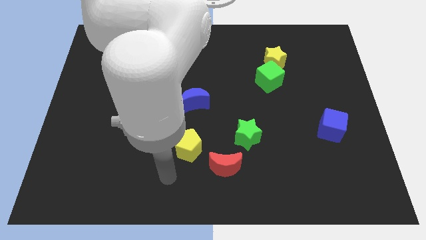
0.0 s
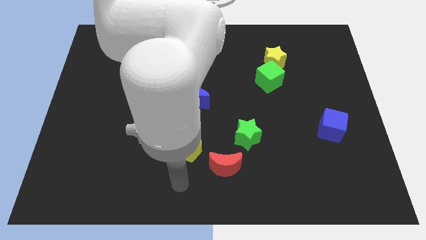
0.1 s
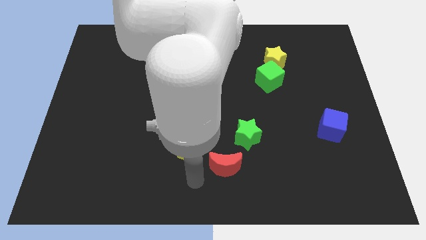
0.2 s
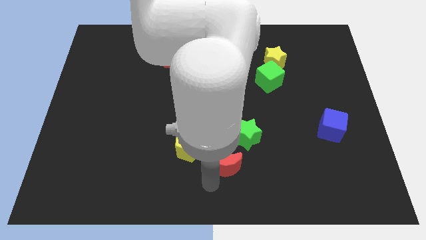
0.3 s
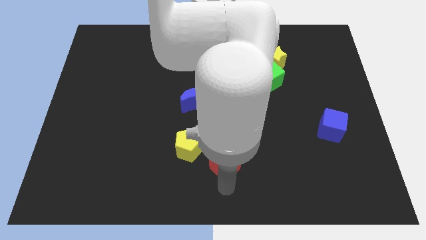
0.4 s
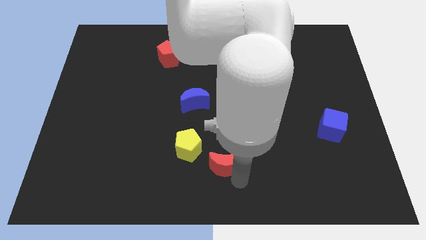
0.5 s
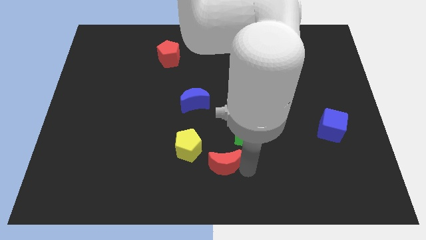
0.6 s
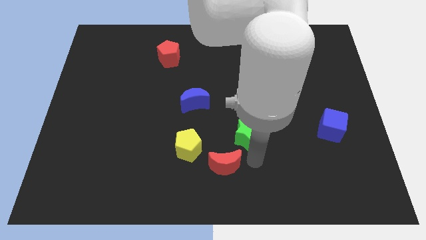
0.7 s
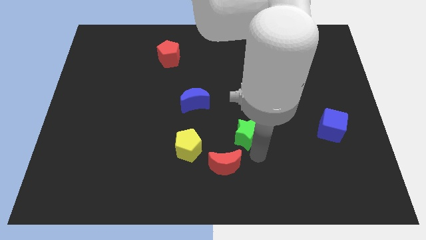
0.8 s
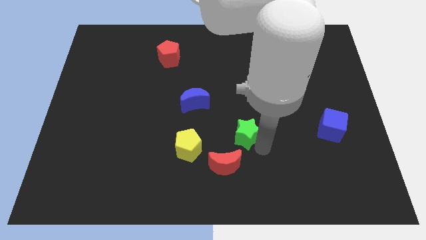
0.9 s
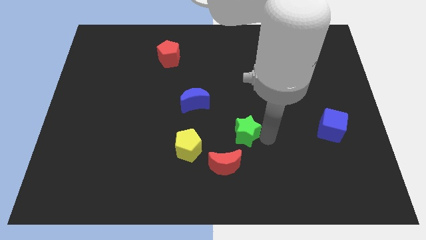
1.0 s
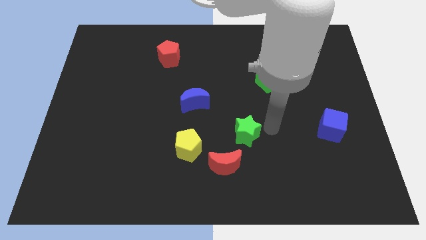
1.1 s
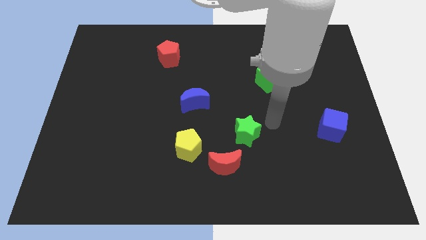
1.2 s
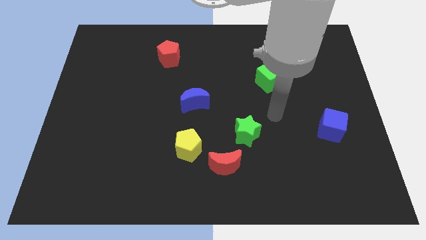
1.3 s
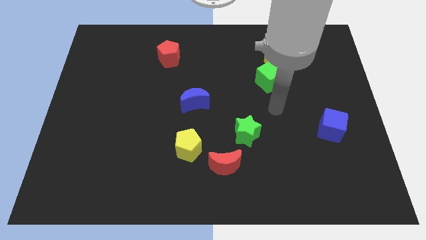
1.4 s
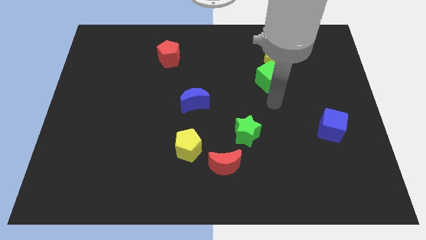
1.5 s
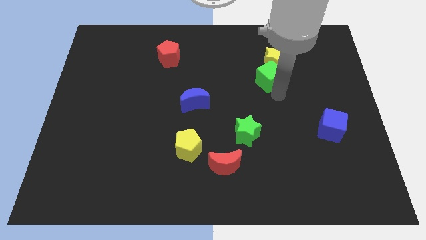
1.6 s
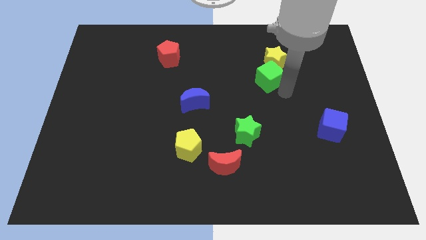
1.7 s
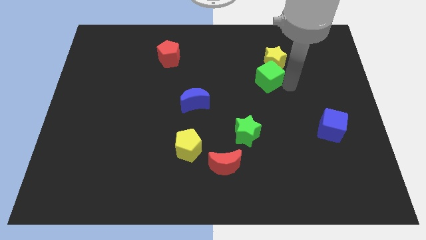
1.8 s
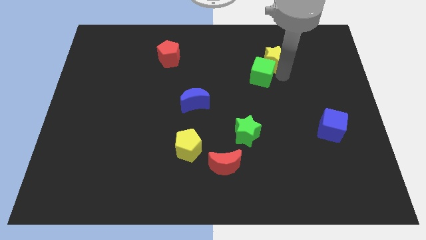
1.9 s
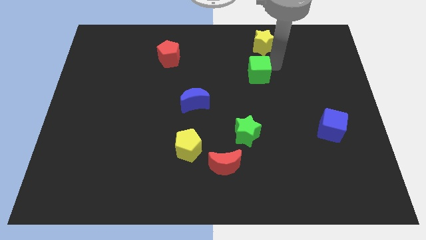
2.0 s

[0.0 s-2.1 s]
move the green cube away from the yellow star

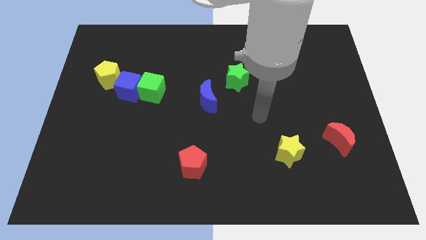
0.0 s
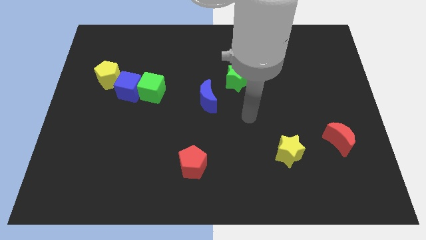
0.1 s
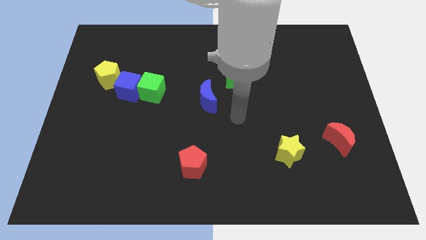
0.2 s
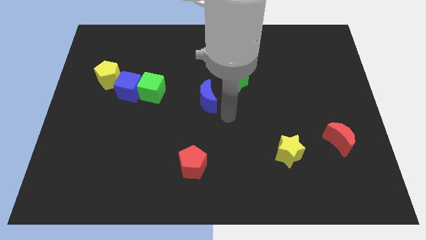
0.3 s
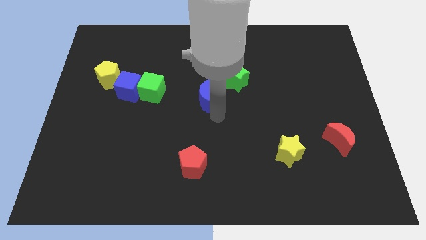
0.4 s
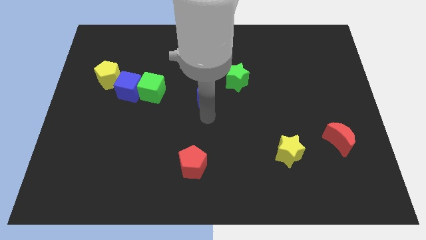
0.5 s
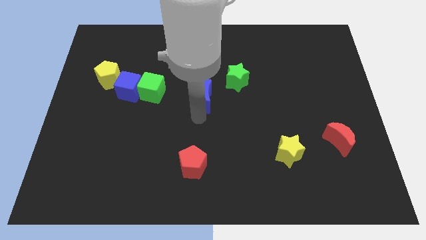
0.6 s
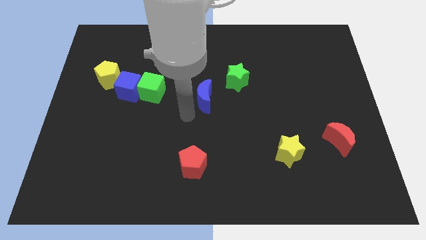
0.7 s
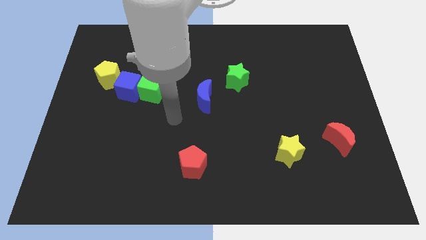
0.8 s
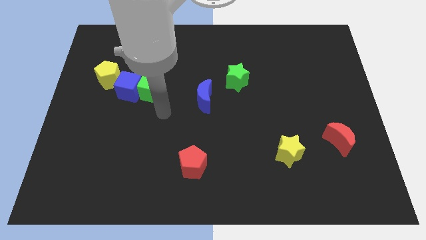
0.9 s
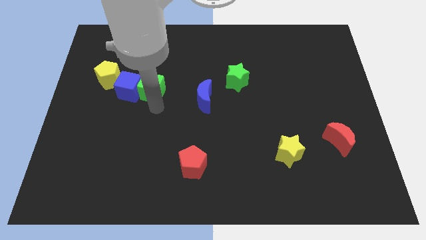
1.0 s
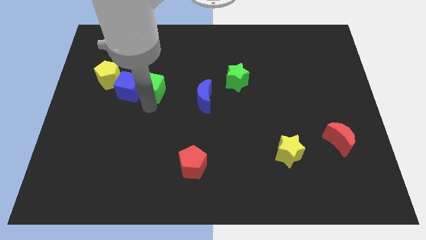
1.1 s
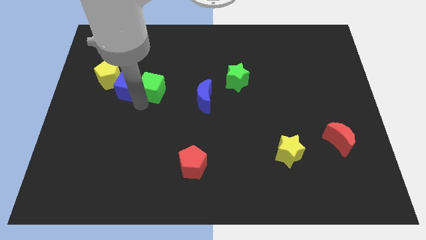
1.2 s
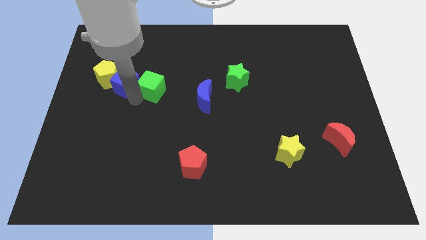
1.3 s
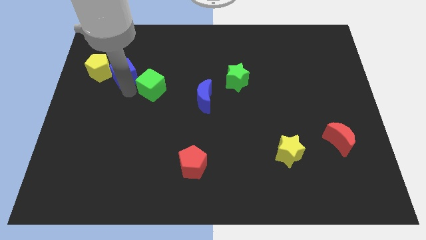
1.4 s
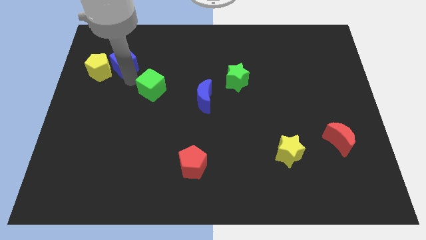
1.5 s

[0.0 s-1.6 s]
pull the green cube apart from the blue cube

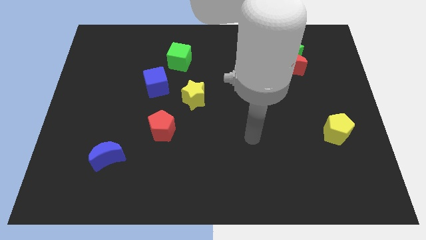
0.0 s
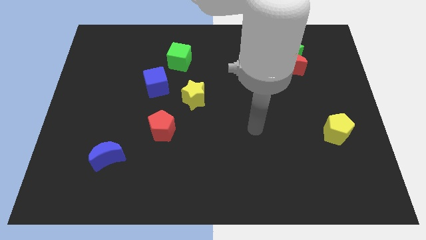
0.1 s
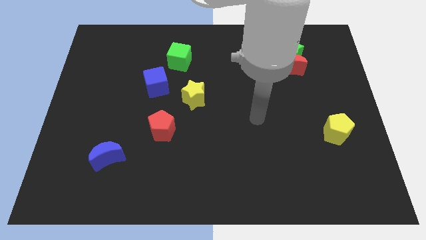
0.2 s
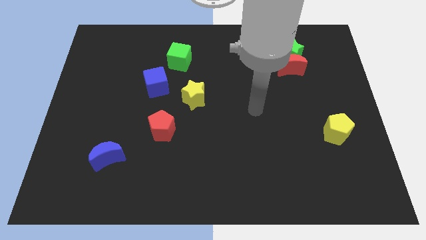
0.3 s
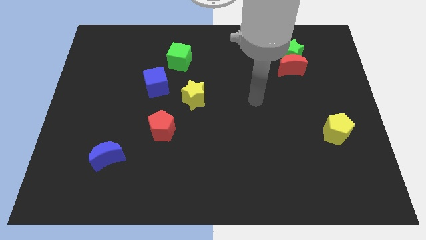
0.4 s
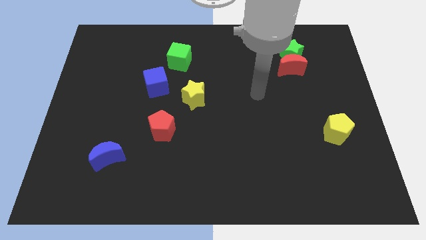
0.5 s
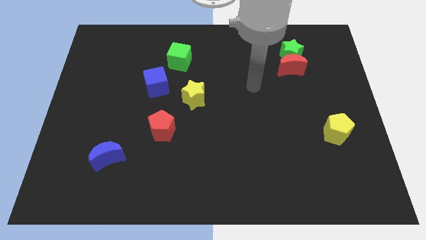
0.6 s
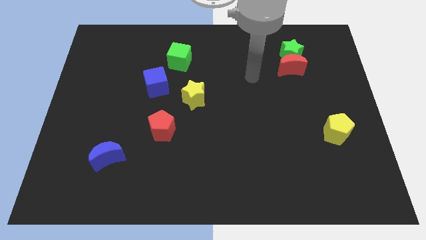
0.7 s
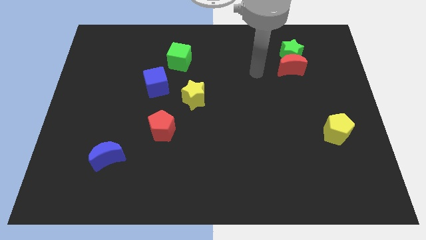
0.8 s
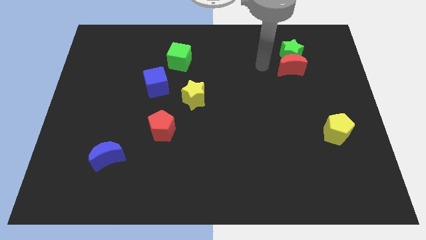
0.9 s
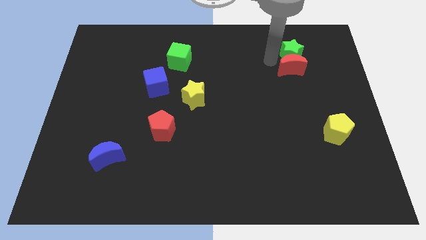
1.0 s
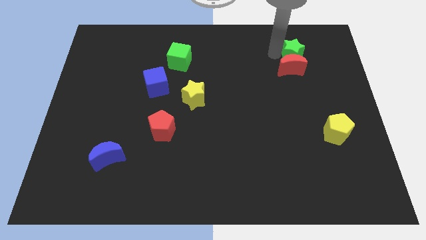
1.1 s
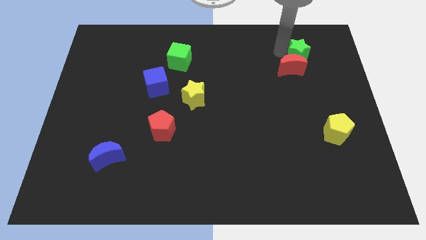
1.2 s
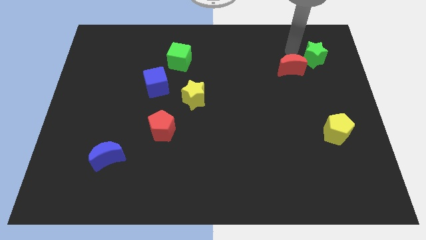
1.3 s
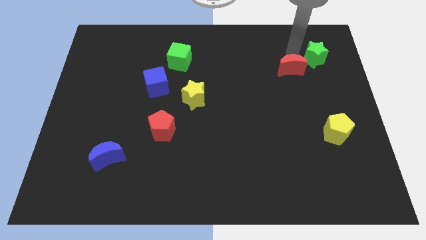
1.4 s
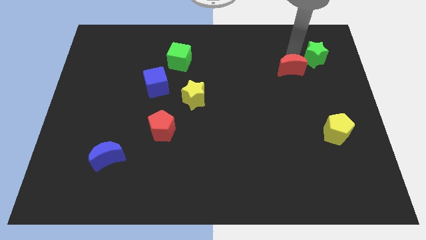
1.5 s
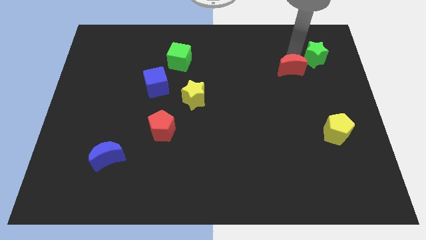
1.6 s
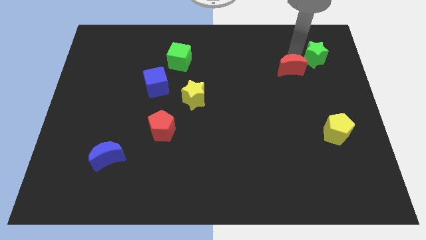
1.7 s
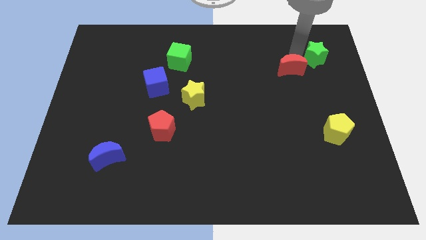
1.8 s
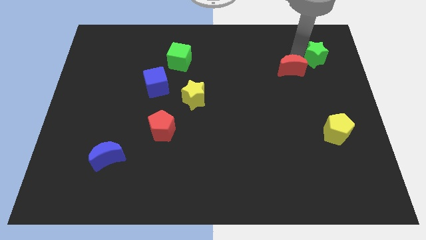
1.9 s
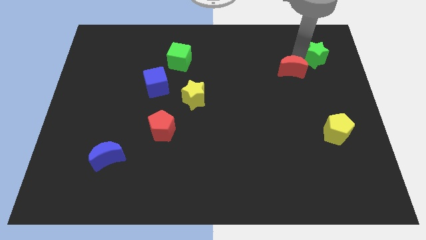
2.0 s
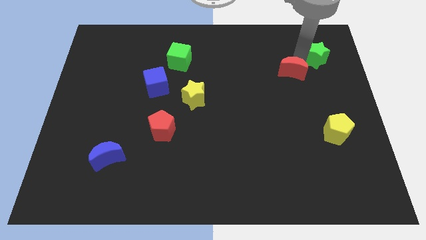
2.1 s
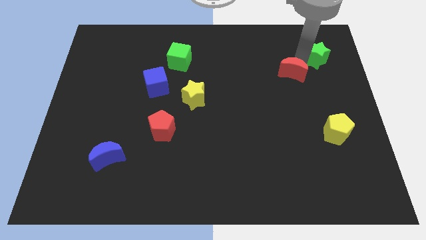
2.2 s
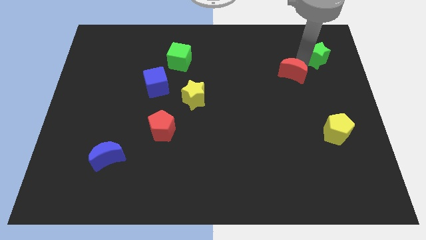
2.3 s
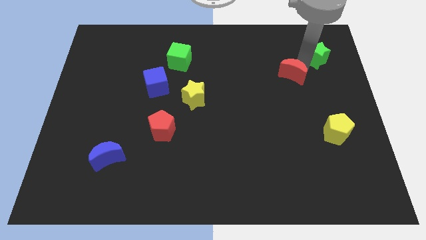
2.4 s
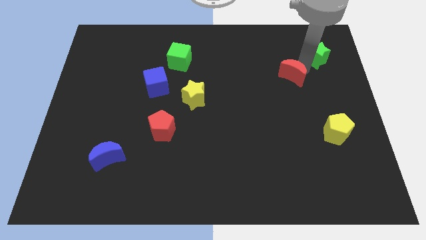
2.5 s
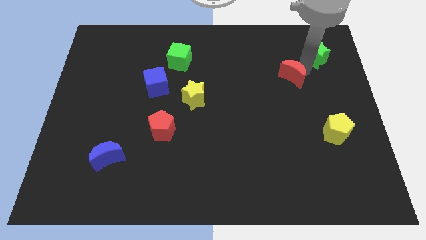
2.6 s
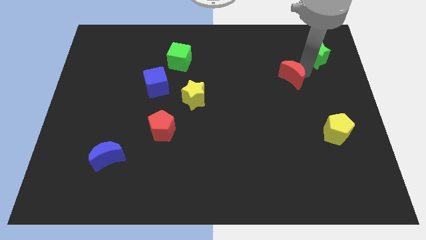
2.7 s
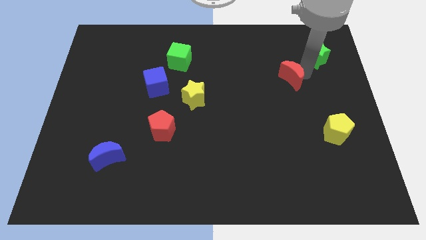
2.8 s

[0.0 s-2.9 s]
move the red moon away from the green star

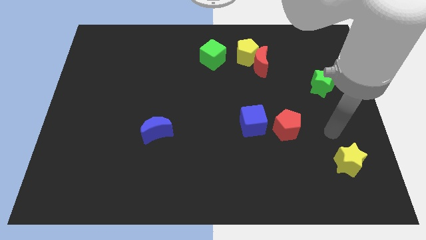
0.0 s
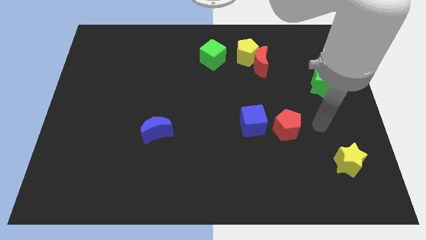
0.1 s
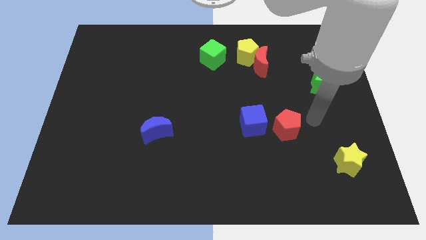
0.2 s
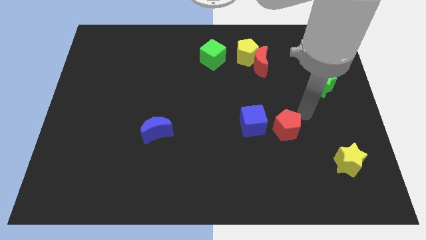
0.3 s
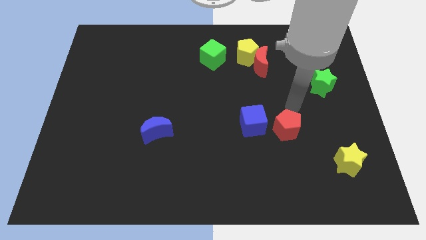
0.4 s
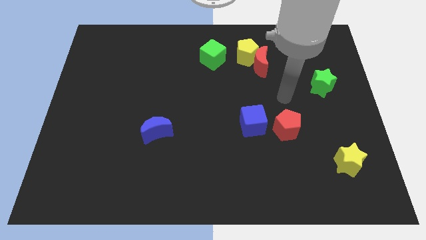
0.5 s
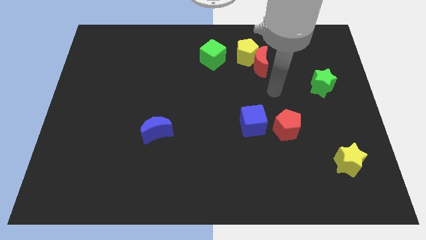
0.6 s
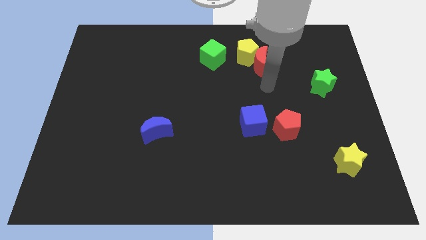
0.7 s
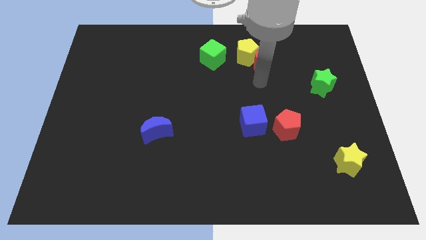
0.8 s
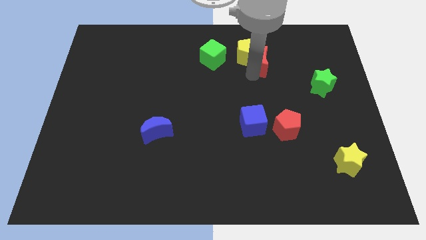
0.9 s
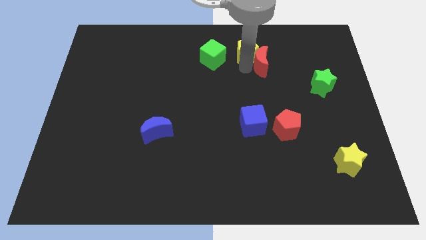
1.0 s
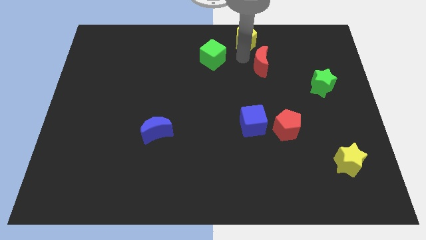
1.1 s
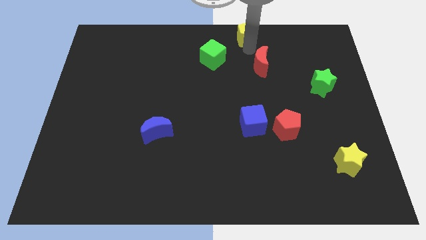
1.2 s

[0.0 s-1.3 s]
pull the red moon apart from the yellow pentagon

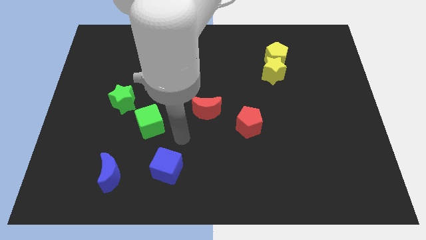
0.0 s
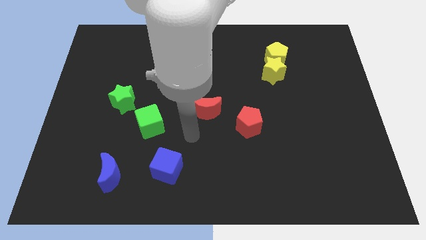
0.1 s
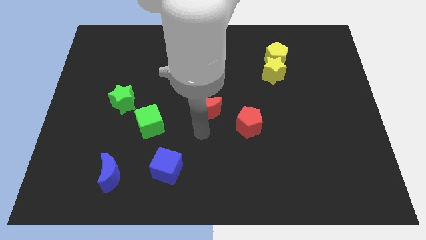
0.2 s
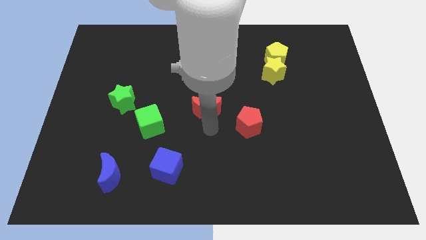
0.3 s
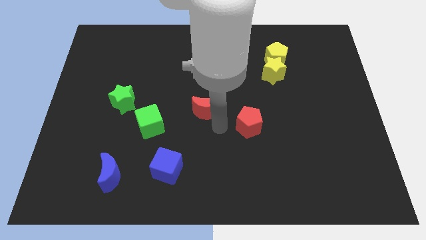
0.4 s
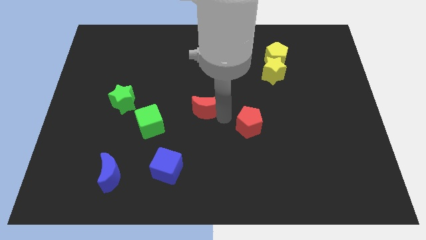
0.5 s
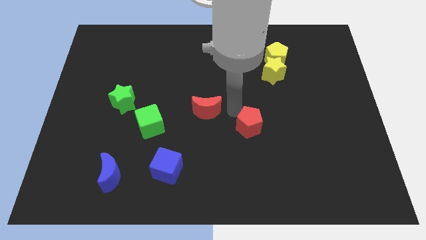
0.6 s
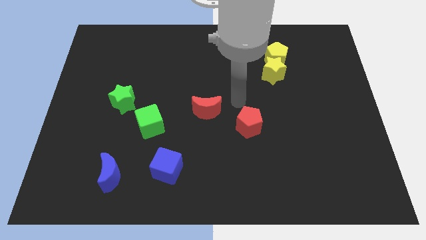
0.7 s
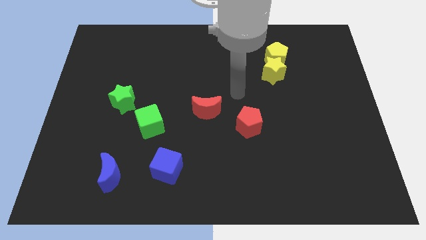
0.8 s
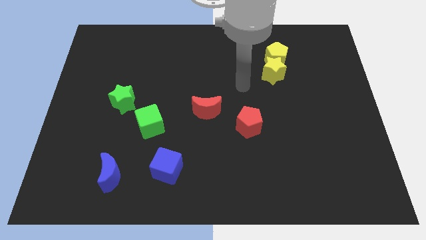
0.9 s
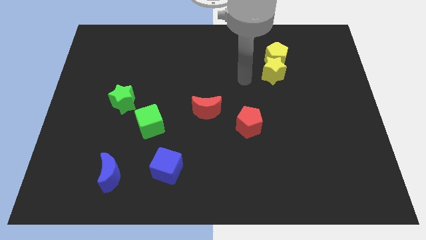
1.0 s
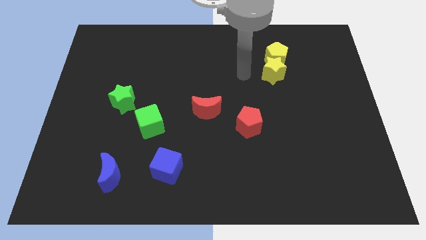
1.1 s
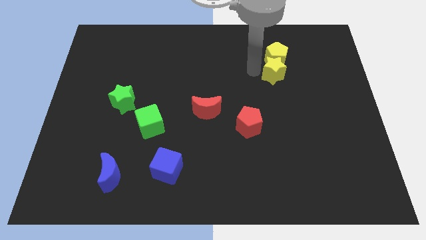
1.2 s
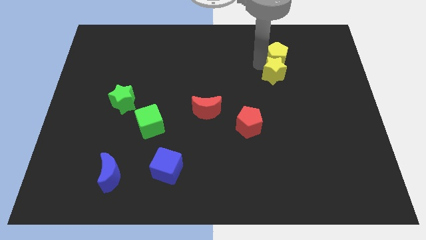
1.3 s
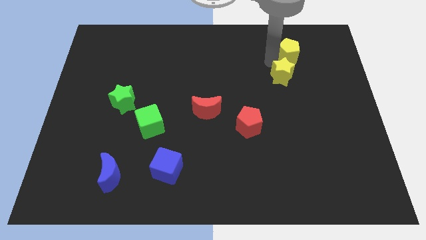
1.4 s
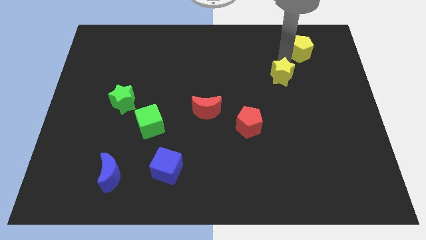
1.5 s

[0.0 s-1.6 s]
separate the yellow star from the yellow pentagon
